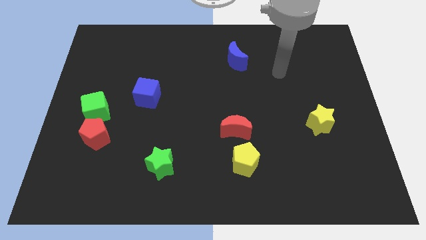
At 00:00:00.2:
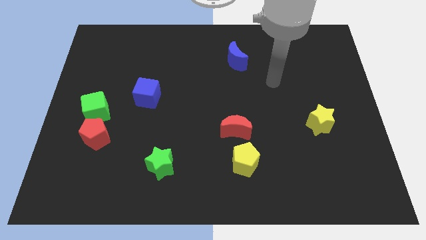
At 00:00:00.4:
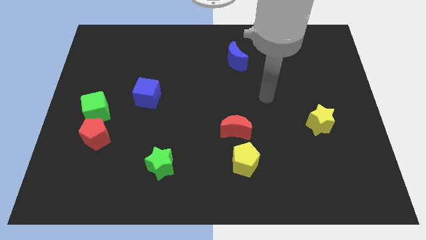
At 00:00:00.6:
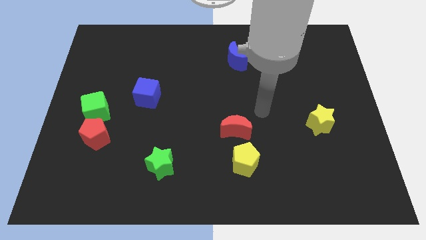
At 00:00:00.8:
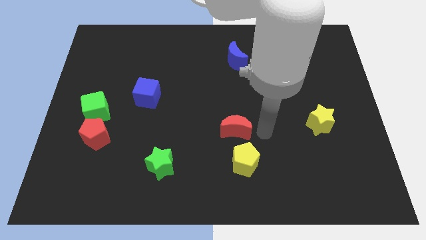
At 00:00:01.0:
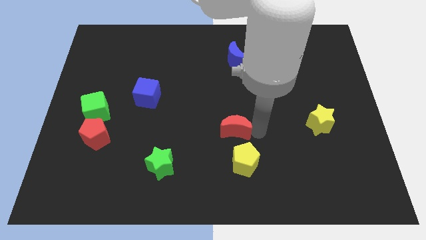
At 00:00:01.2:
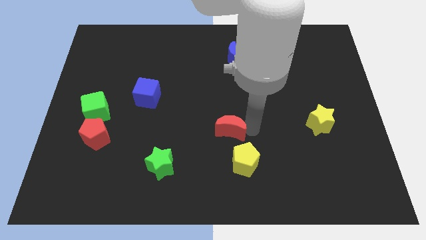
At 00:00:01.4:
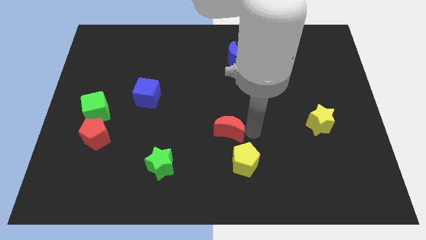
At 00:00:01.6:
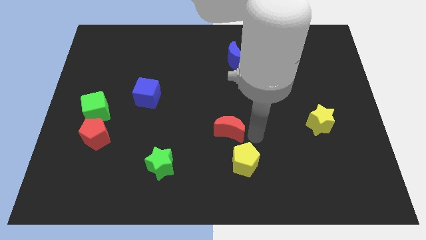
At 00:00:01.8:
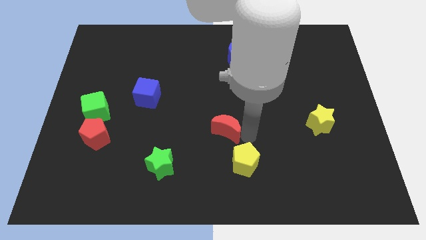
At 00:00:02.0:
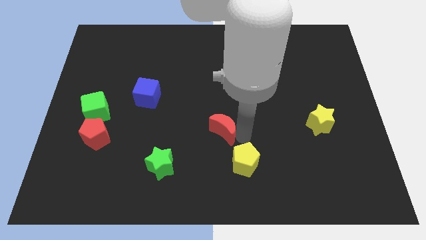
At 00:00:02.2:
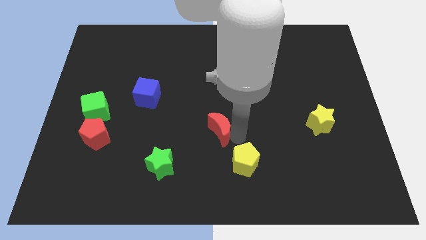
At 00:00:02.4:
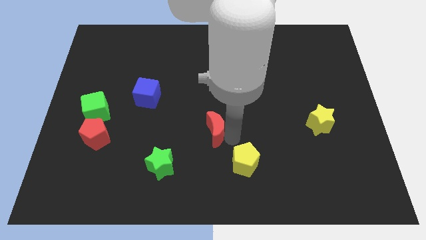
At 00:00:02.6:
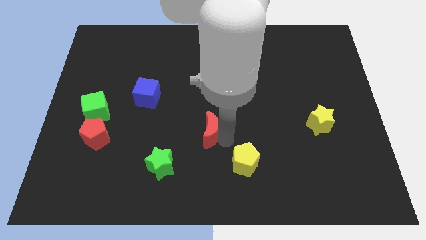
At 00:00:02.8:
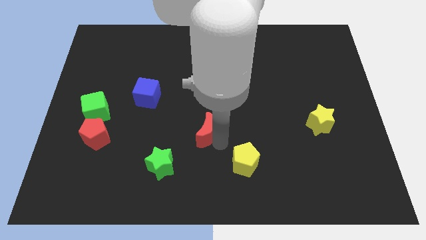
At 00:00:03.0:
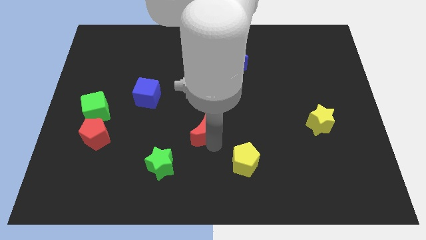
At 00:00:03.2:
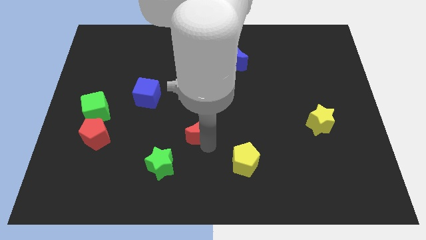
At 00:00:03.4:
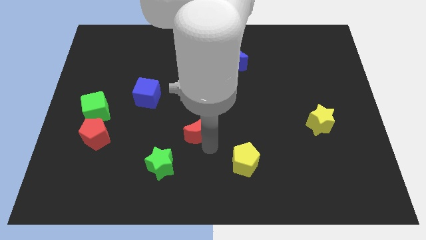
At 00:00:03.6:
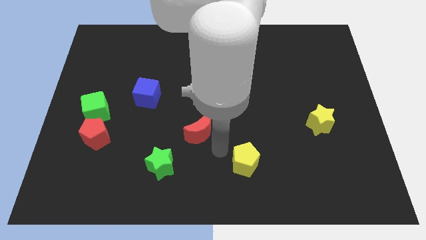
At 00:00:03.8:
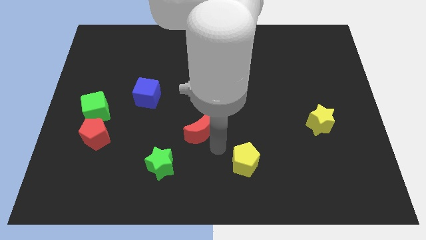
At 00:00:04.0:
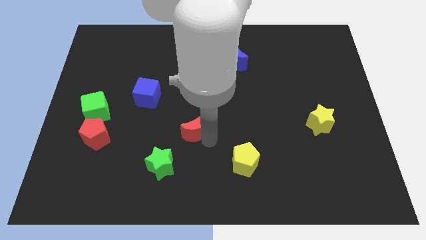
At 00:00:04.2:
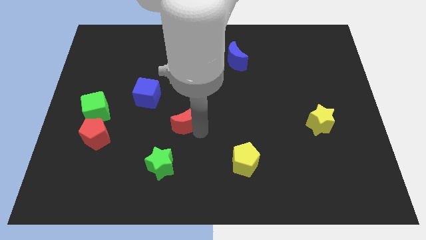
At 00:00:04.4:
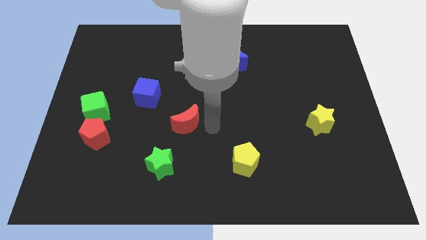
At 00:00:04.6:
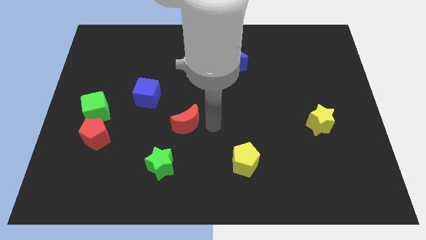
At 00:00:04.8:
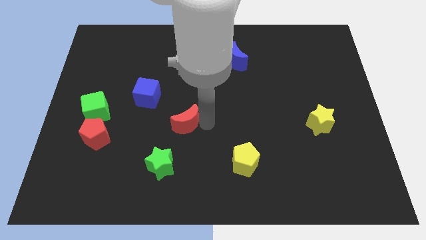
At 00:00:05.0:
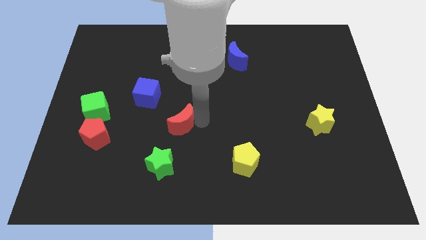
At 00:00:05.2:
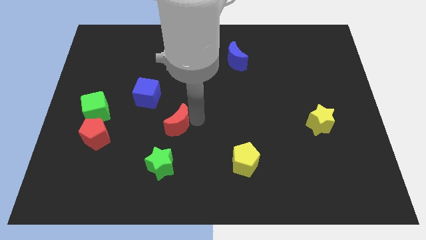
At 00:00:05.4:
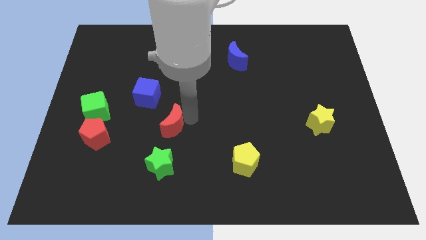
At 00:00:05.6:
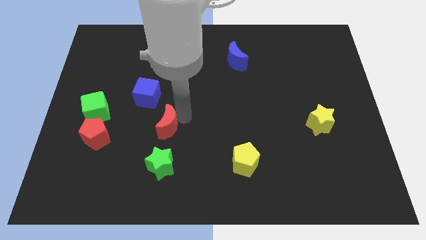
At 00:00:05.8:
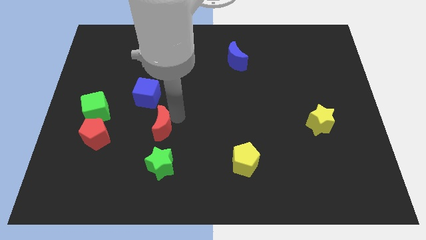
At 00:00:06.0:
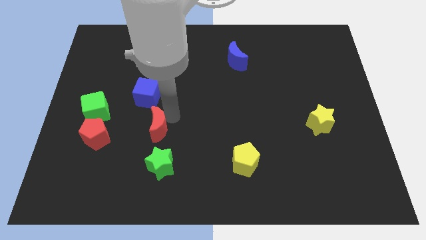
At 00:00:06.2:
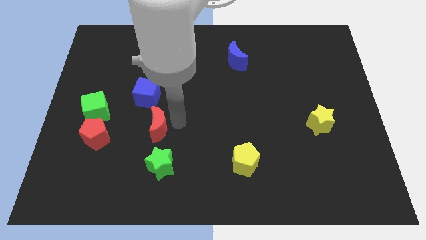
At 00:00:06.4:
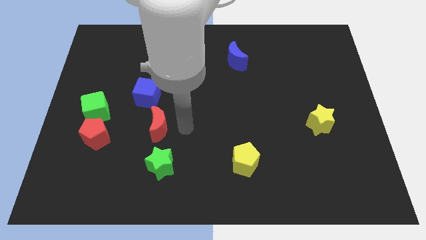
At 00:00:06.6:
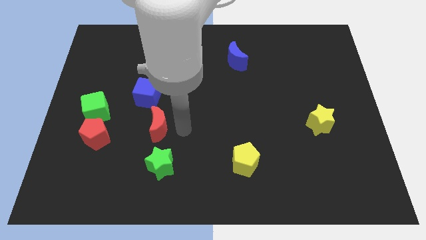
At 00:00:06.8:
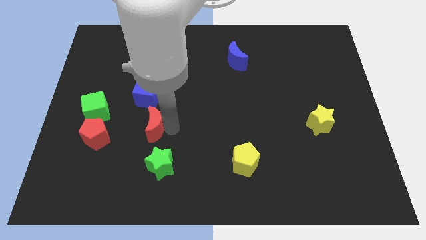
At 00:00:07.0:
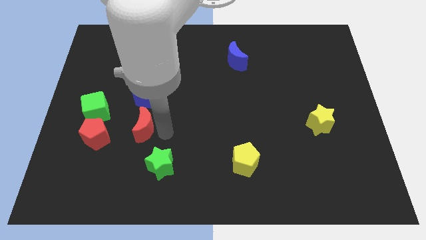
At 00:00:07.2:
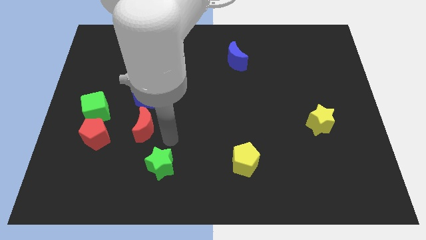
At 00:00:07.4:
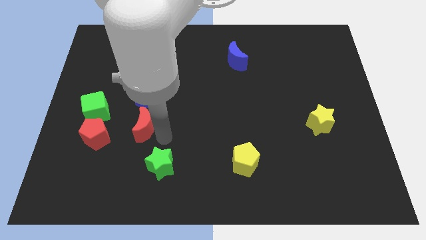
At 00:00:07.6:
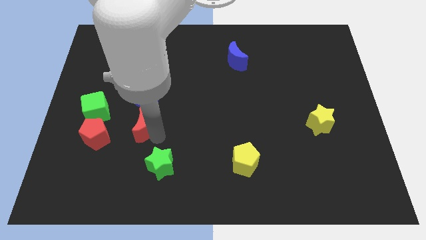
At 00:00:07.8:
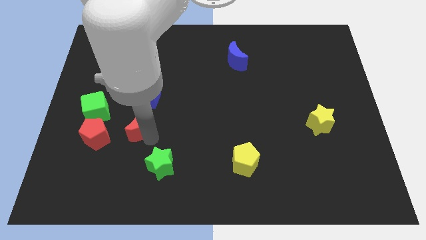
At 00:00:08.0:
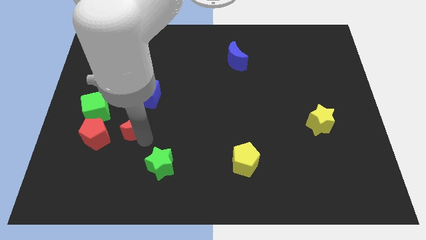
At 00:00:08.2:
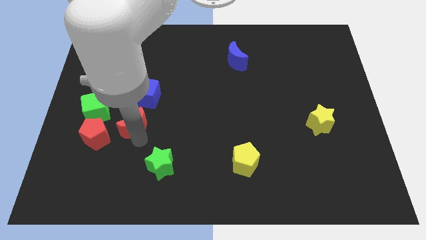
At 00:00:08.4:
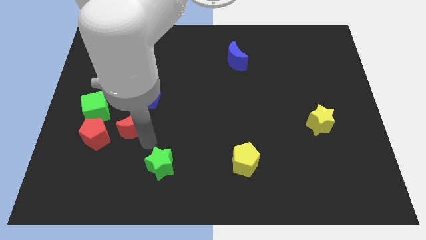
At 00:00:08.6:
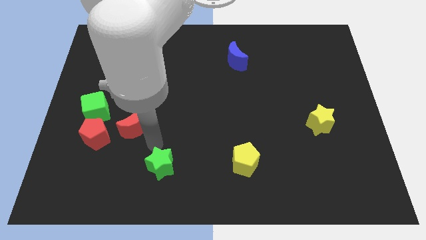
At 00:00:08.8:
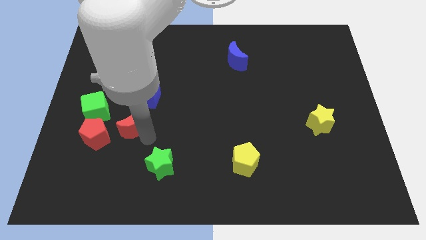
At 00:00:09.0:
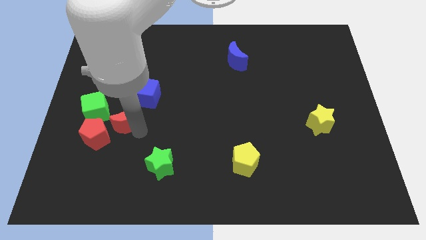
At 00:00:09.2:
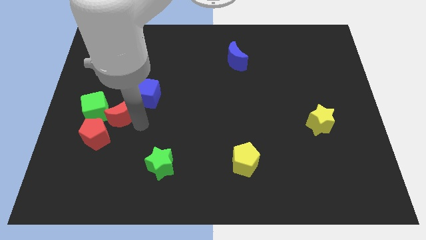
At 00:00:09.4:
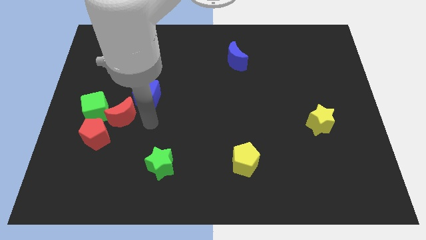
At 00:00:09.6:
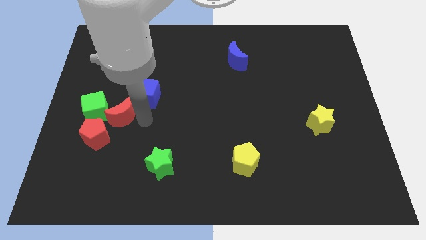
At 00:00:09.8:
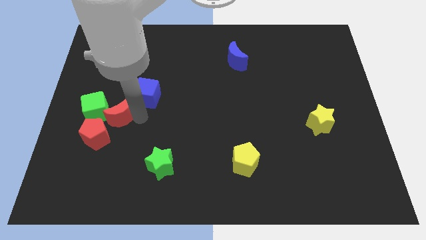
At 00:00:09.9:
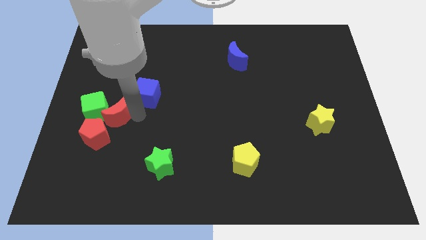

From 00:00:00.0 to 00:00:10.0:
push the red moon towards the green cube

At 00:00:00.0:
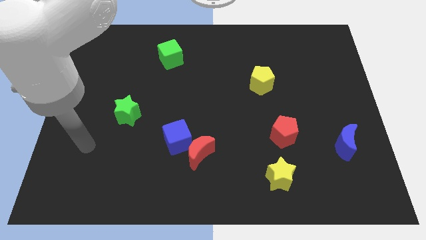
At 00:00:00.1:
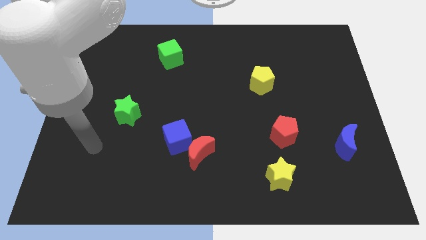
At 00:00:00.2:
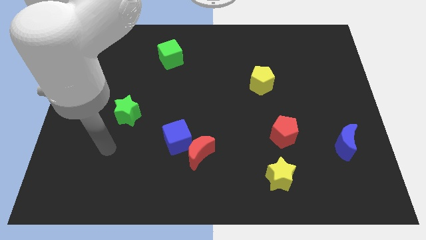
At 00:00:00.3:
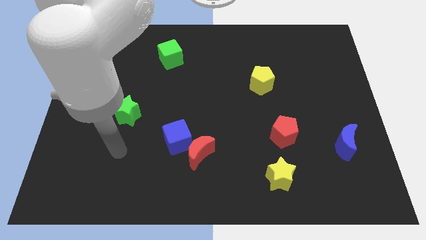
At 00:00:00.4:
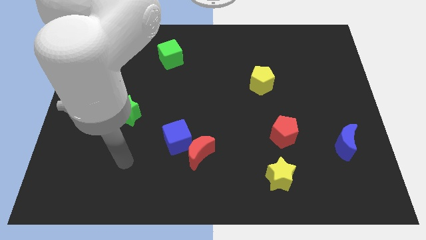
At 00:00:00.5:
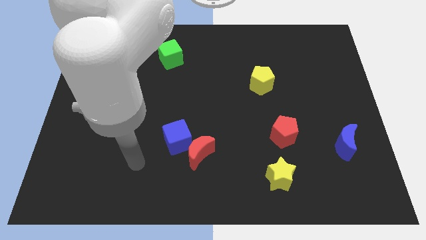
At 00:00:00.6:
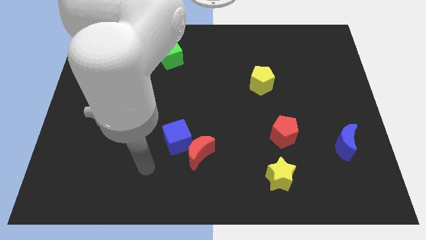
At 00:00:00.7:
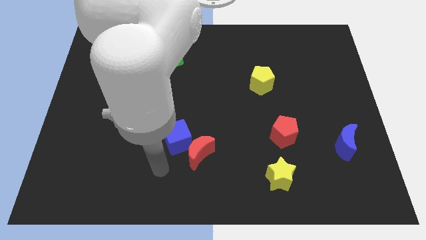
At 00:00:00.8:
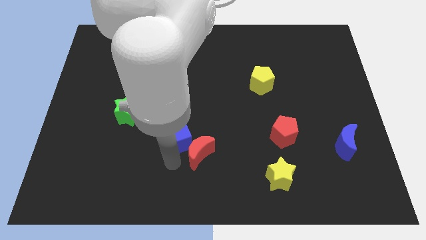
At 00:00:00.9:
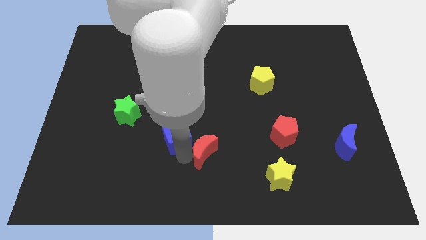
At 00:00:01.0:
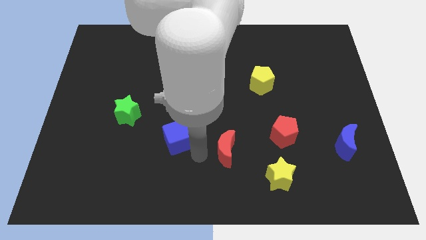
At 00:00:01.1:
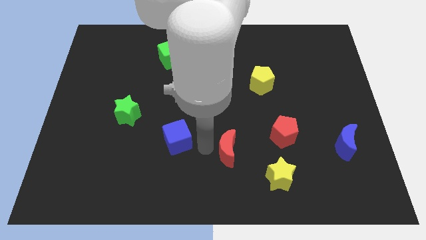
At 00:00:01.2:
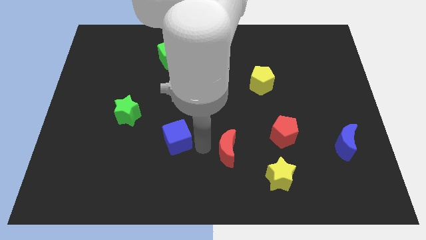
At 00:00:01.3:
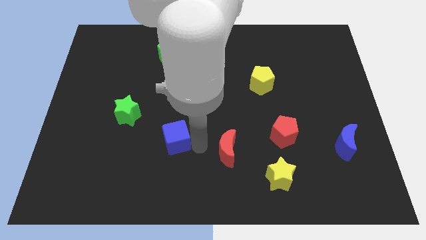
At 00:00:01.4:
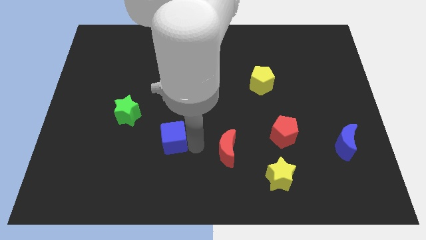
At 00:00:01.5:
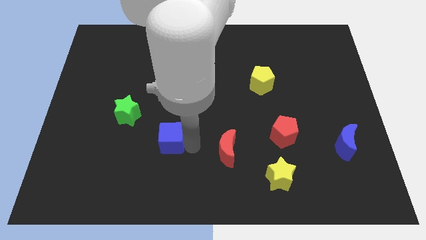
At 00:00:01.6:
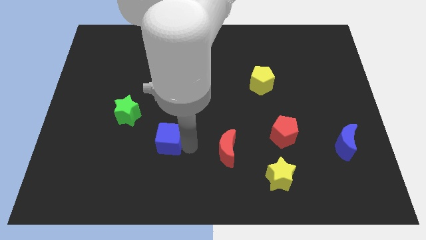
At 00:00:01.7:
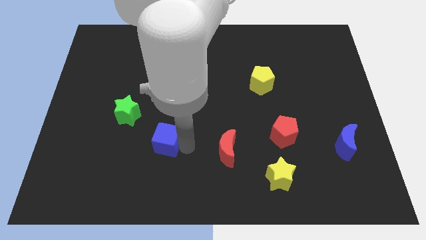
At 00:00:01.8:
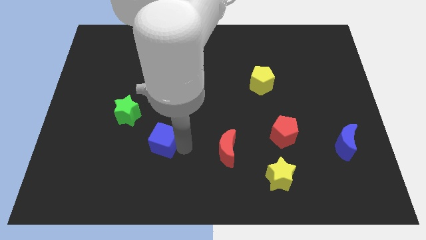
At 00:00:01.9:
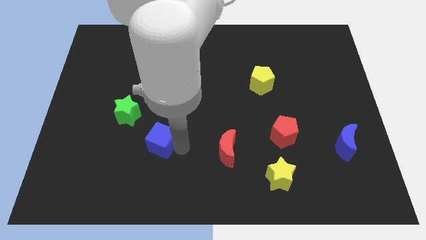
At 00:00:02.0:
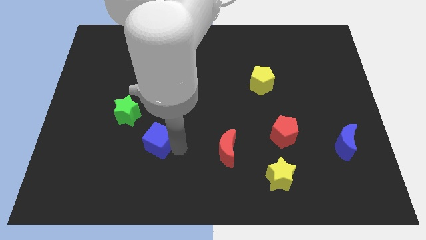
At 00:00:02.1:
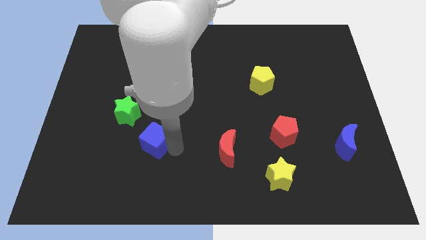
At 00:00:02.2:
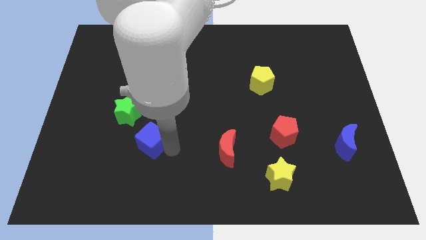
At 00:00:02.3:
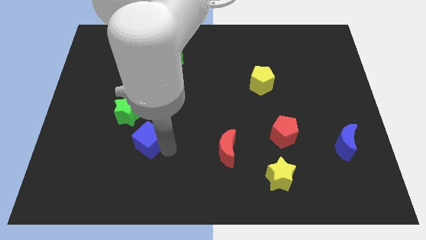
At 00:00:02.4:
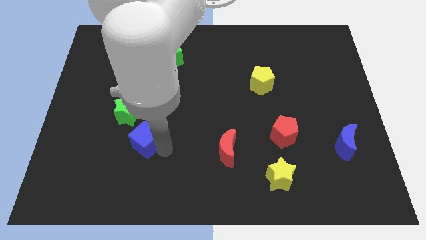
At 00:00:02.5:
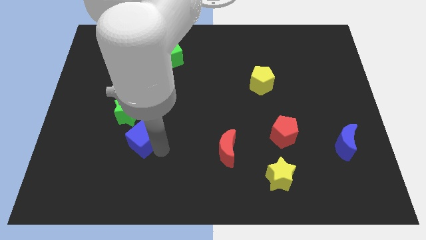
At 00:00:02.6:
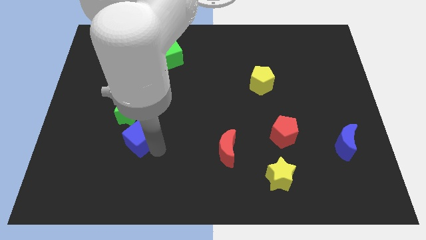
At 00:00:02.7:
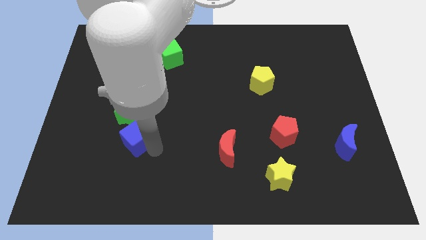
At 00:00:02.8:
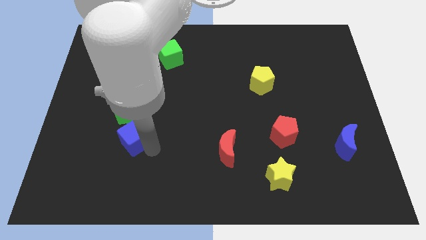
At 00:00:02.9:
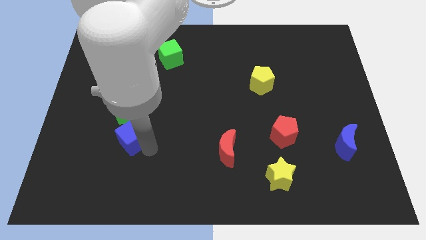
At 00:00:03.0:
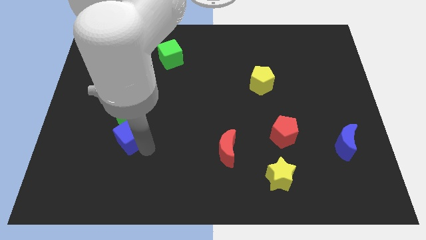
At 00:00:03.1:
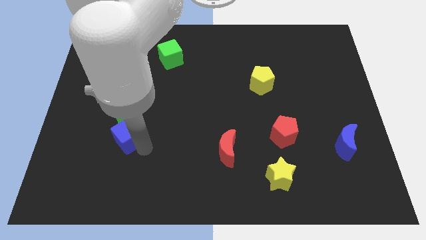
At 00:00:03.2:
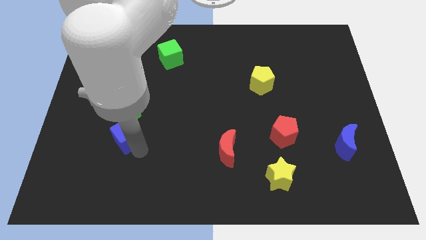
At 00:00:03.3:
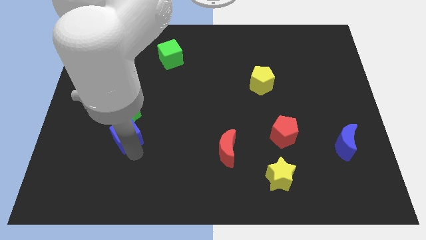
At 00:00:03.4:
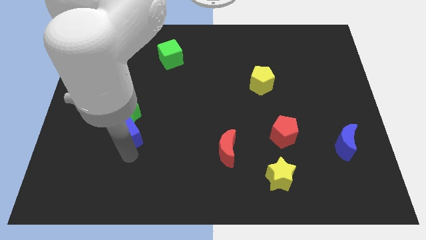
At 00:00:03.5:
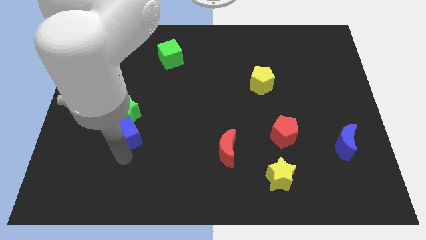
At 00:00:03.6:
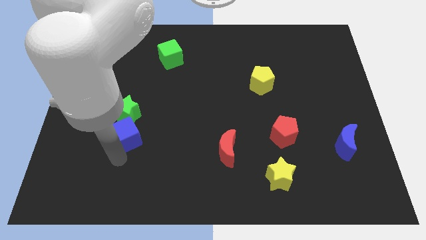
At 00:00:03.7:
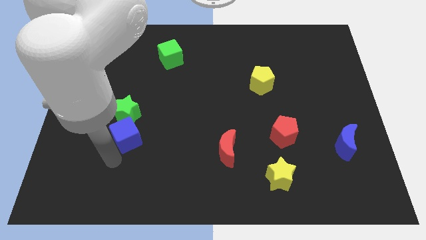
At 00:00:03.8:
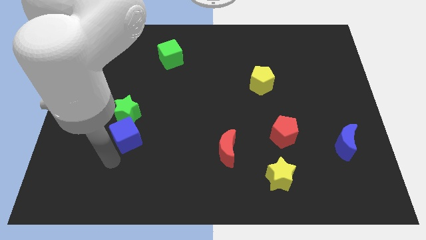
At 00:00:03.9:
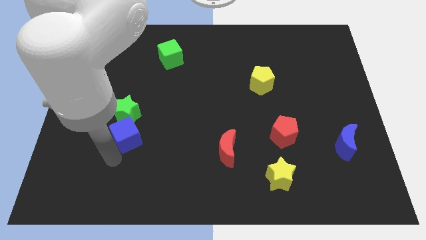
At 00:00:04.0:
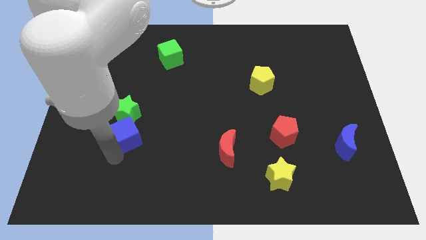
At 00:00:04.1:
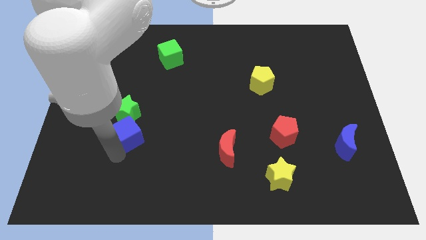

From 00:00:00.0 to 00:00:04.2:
move the blue cube to the green star
